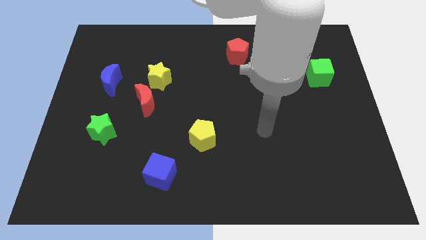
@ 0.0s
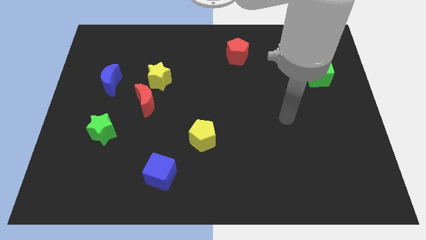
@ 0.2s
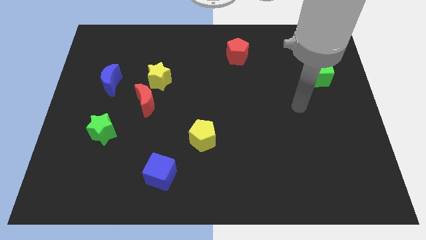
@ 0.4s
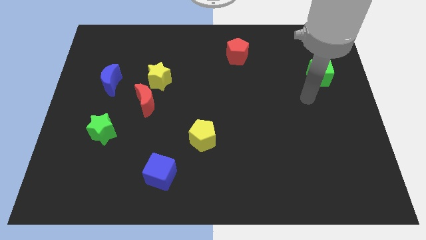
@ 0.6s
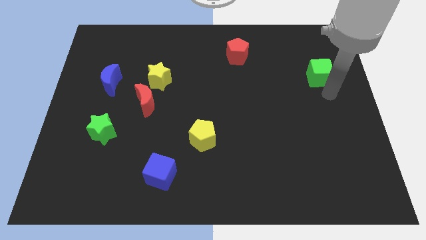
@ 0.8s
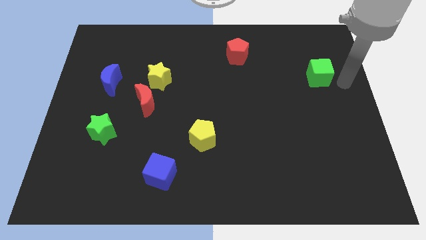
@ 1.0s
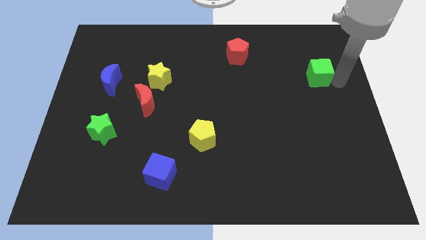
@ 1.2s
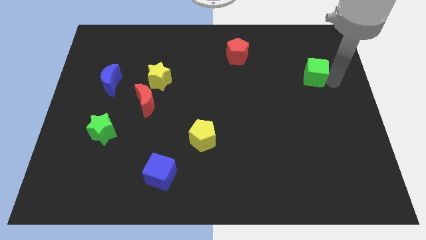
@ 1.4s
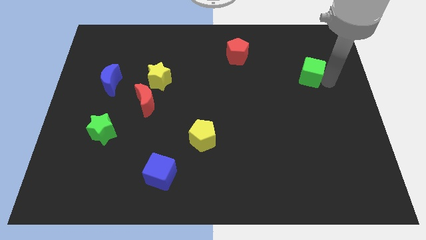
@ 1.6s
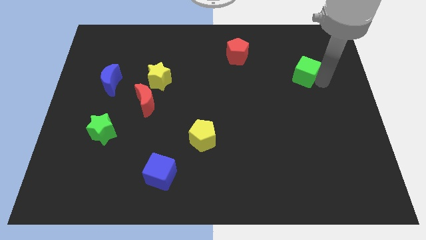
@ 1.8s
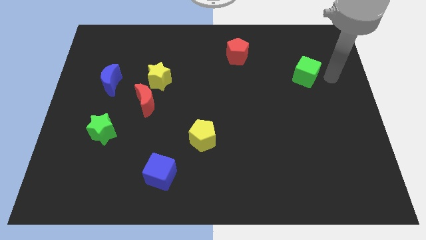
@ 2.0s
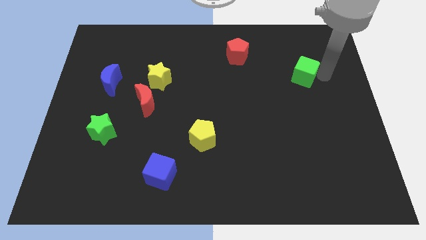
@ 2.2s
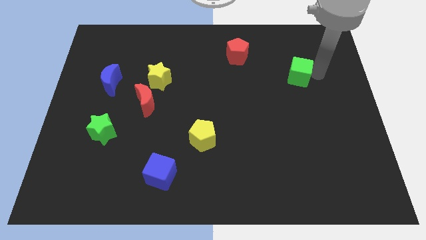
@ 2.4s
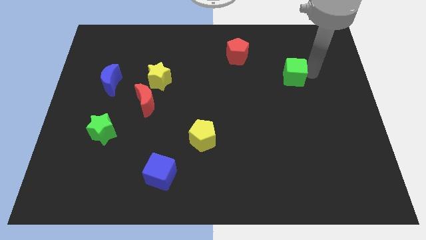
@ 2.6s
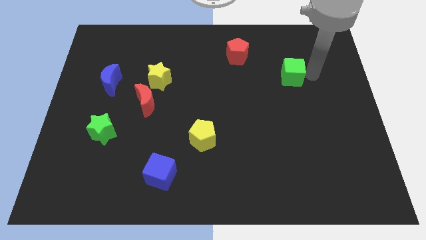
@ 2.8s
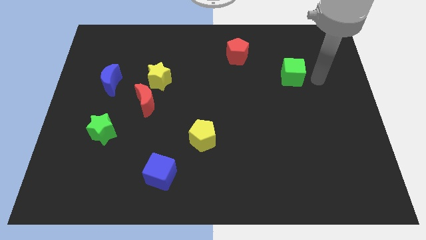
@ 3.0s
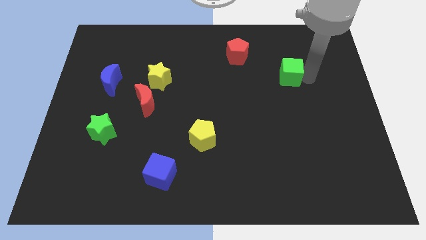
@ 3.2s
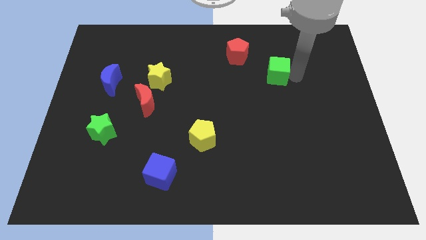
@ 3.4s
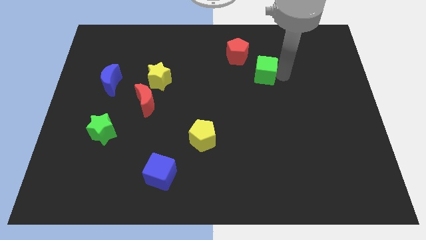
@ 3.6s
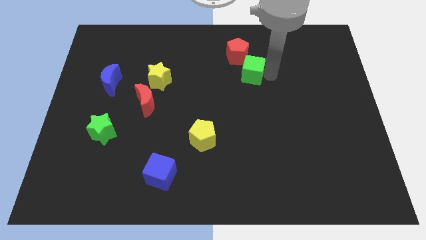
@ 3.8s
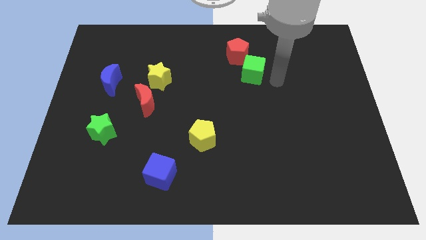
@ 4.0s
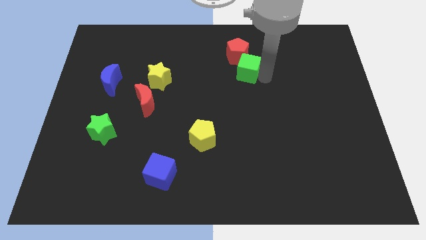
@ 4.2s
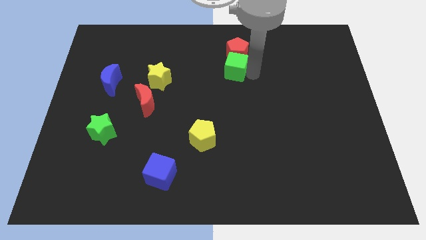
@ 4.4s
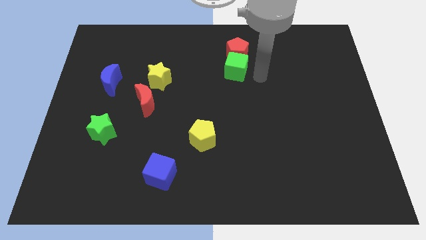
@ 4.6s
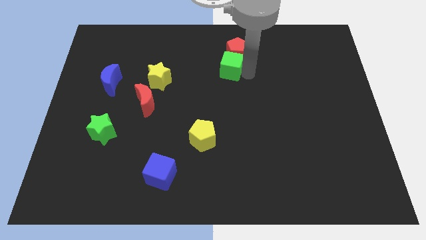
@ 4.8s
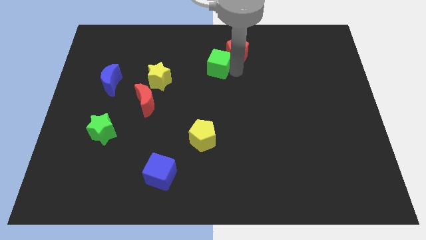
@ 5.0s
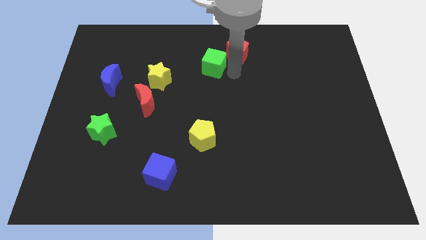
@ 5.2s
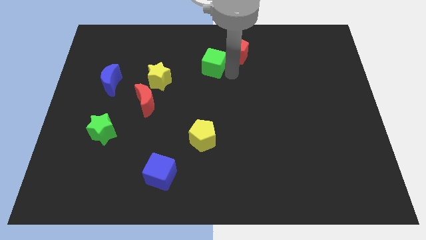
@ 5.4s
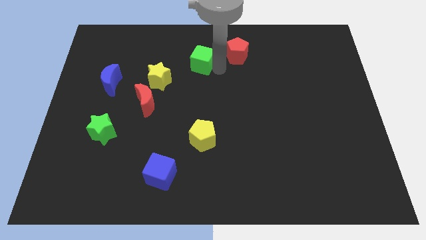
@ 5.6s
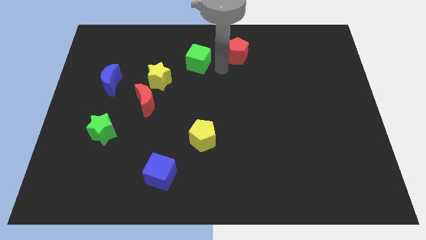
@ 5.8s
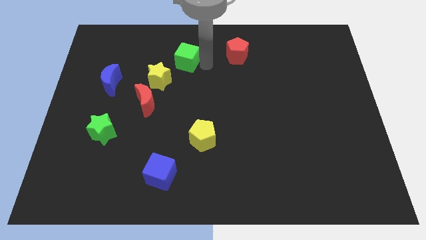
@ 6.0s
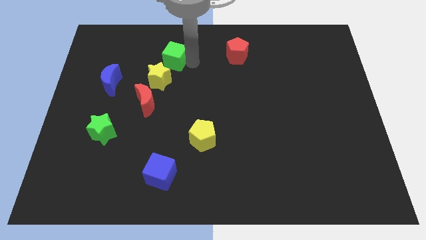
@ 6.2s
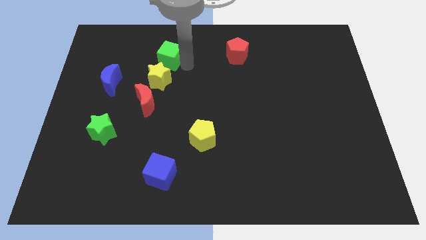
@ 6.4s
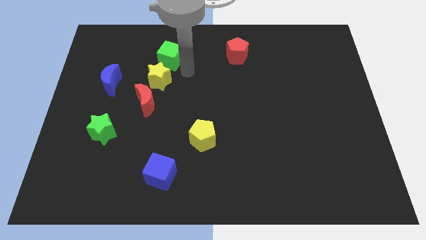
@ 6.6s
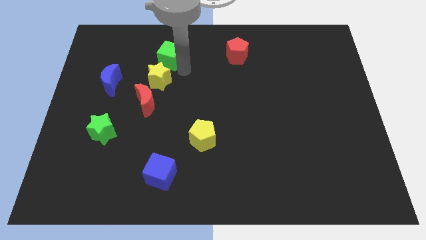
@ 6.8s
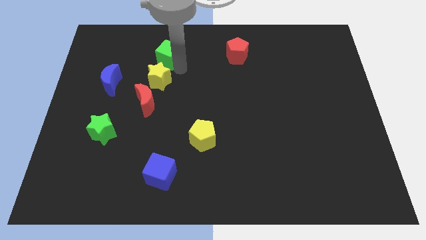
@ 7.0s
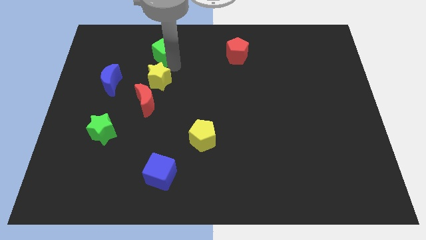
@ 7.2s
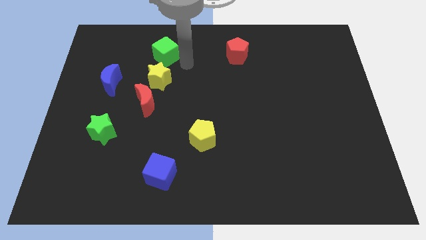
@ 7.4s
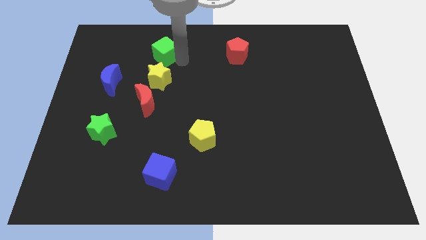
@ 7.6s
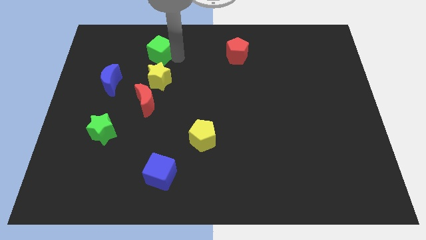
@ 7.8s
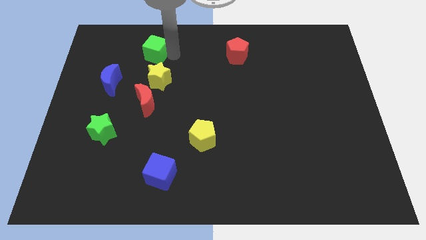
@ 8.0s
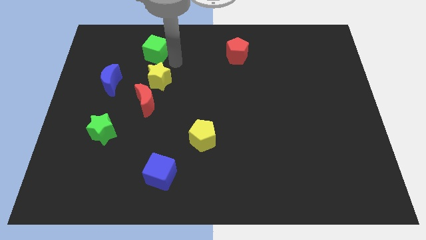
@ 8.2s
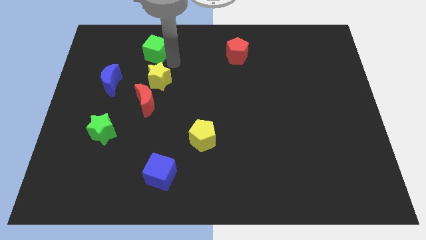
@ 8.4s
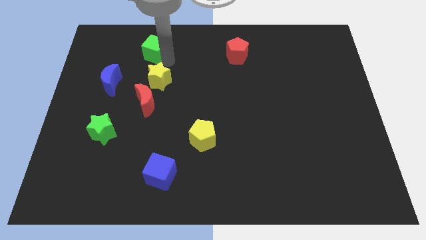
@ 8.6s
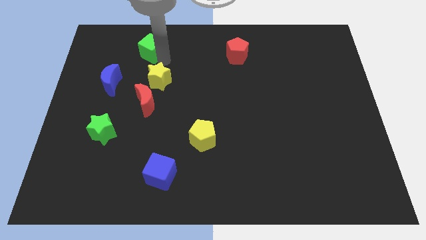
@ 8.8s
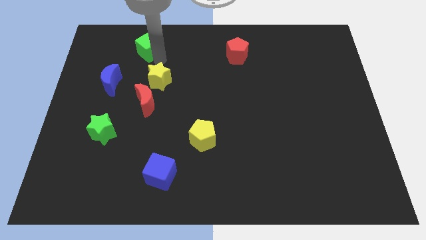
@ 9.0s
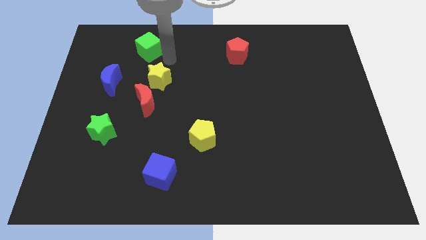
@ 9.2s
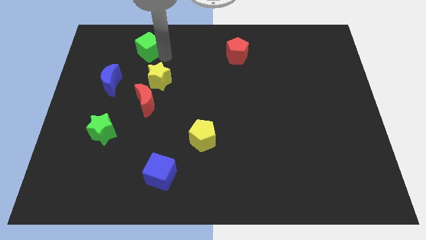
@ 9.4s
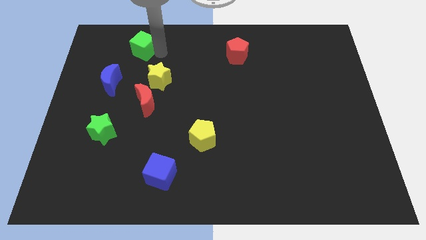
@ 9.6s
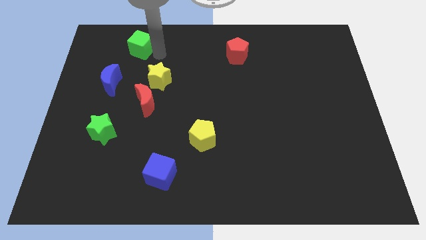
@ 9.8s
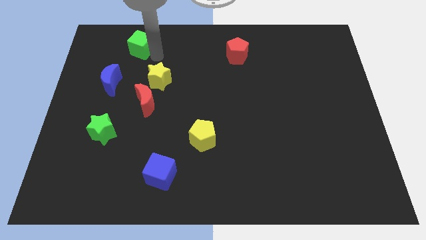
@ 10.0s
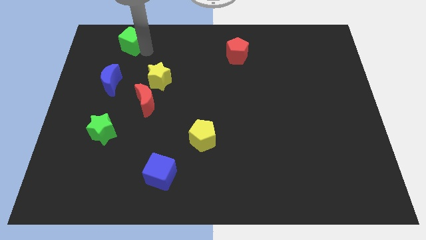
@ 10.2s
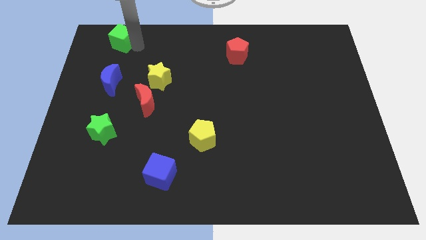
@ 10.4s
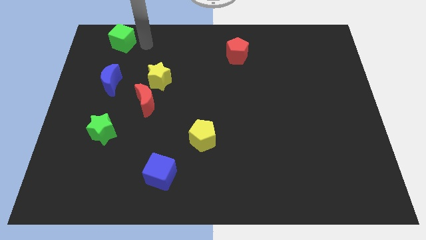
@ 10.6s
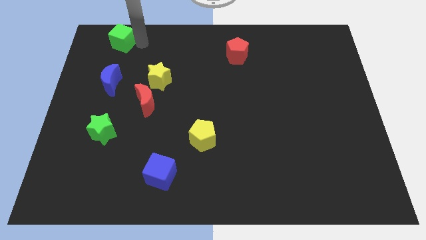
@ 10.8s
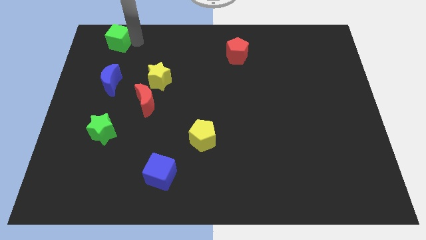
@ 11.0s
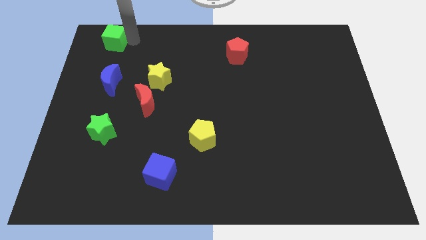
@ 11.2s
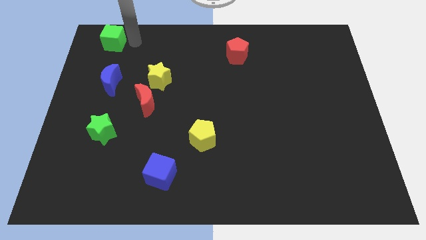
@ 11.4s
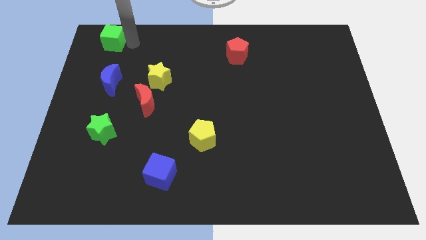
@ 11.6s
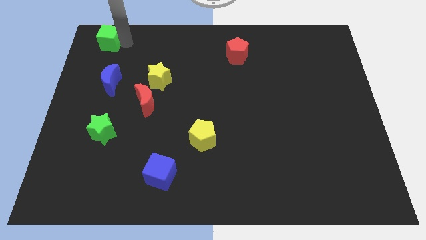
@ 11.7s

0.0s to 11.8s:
put the green cube to the top left
